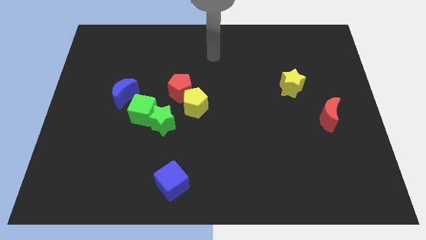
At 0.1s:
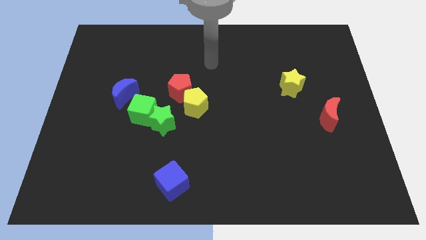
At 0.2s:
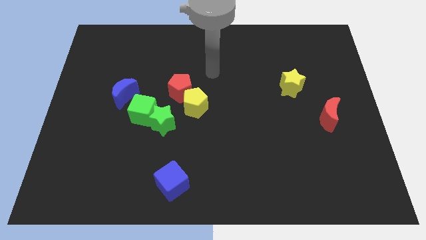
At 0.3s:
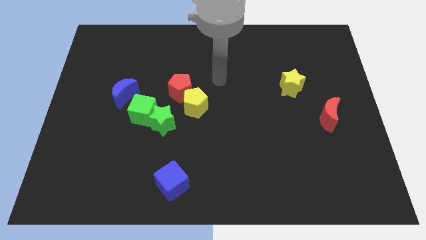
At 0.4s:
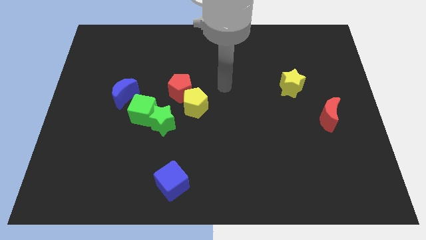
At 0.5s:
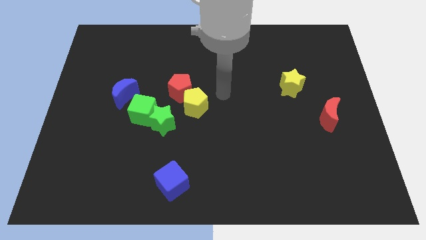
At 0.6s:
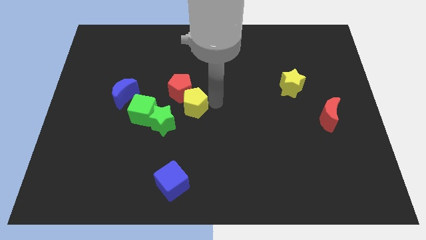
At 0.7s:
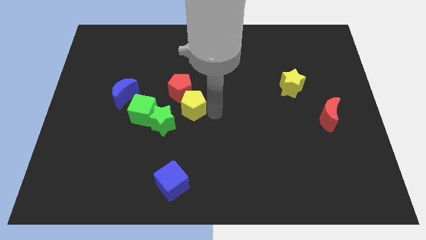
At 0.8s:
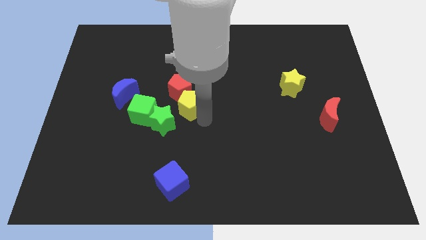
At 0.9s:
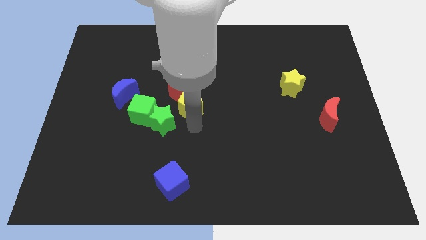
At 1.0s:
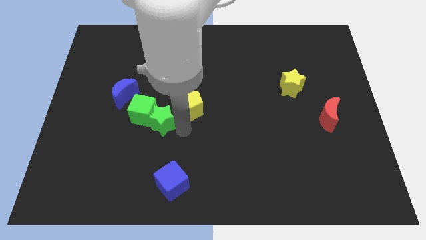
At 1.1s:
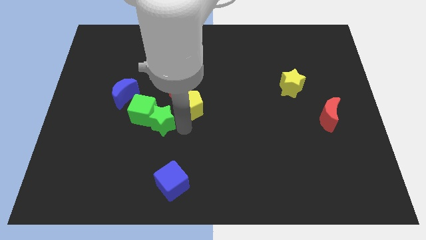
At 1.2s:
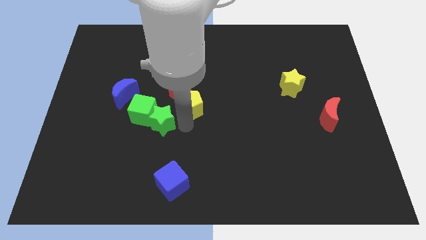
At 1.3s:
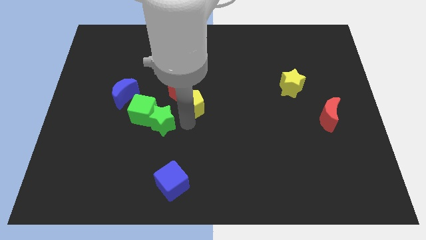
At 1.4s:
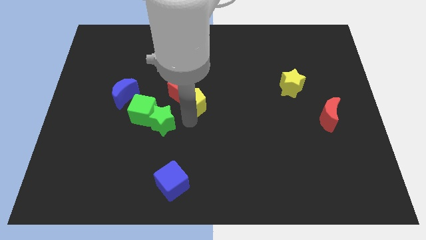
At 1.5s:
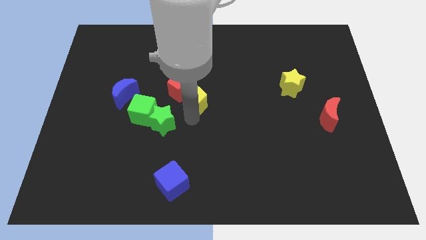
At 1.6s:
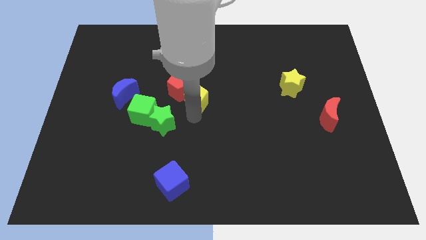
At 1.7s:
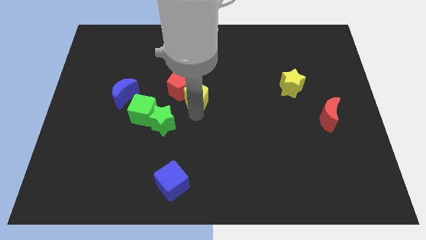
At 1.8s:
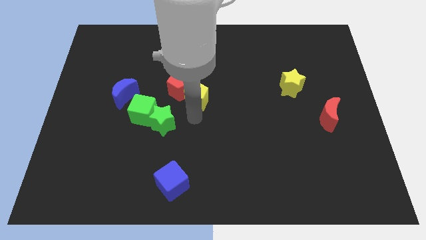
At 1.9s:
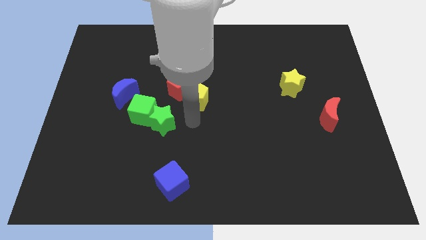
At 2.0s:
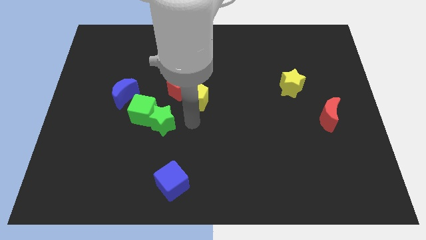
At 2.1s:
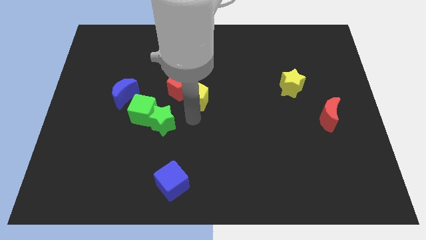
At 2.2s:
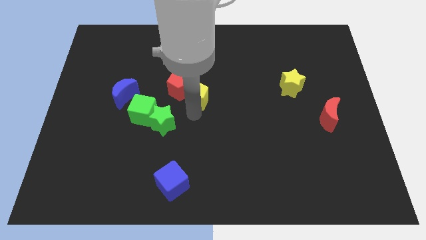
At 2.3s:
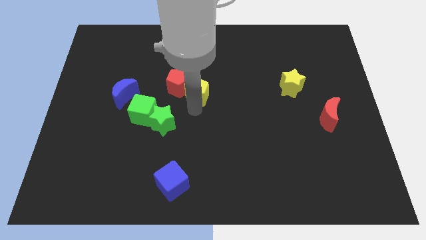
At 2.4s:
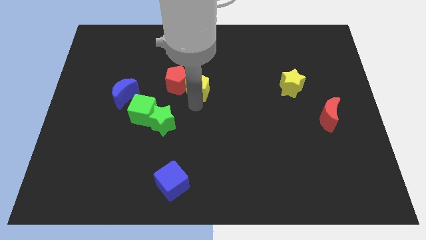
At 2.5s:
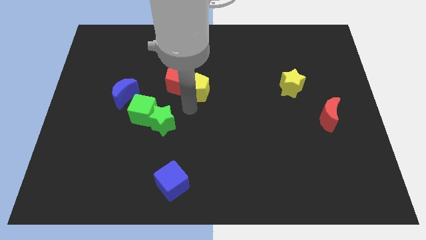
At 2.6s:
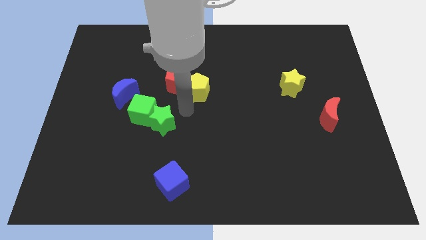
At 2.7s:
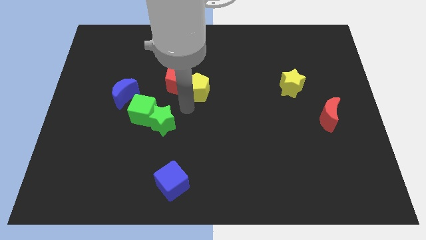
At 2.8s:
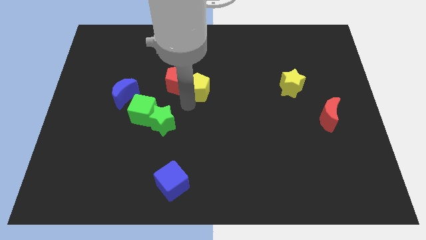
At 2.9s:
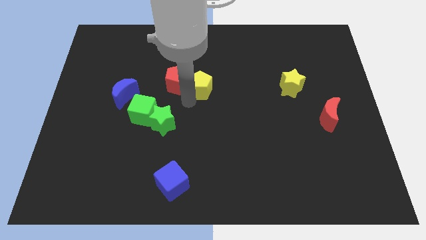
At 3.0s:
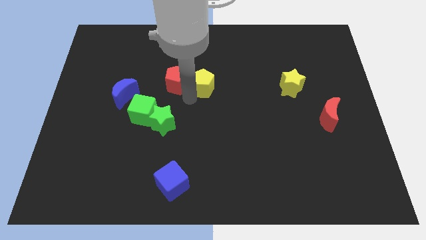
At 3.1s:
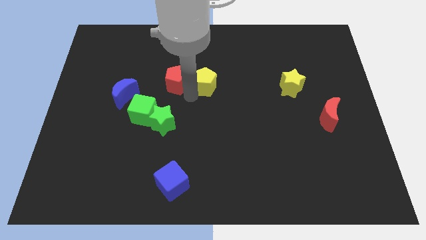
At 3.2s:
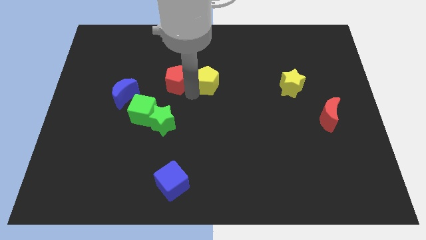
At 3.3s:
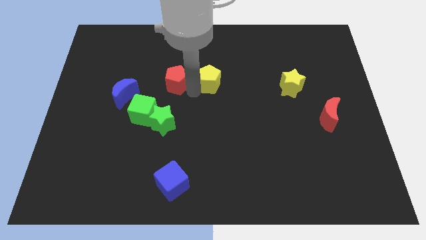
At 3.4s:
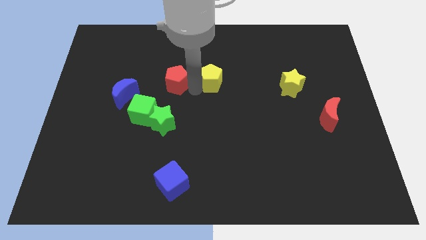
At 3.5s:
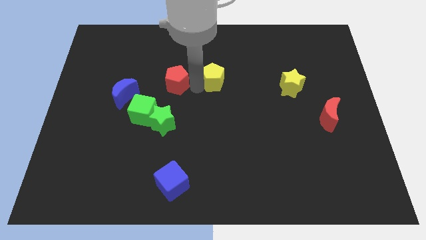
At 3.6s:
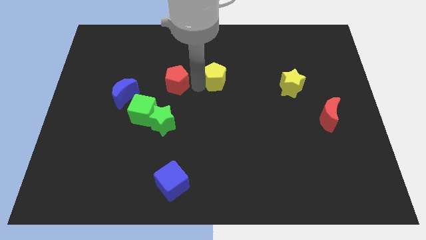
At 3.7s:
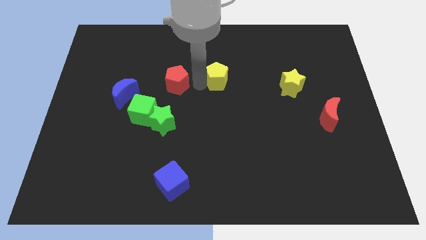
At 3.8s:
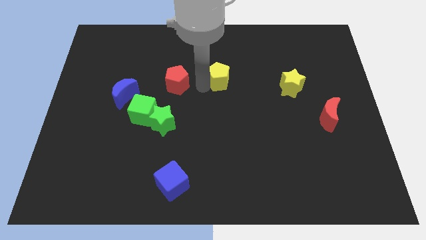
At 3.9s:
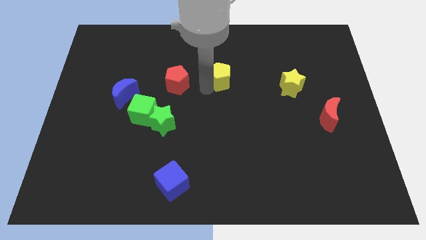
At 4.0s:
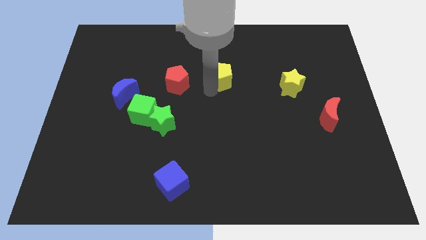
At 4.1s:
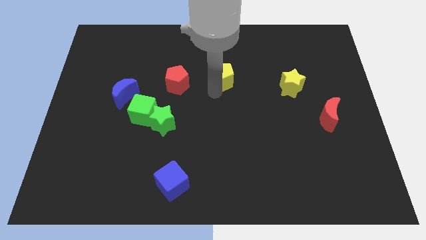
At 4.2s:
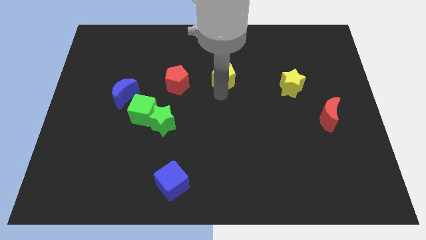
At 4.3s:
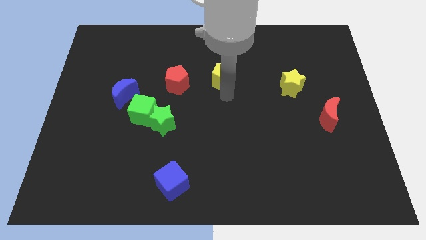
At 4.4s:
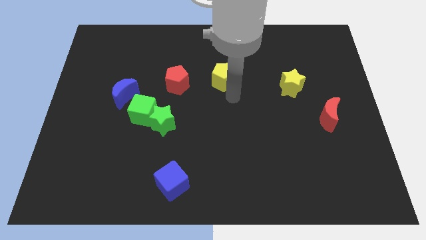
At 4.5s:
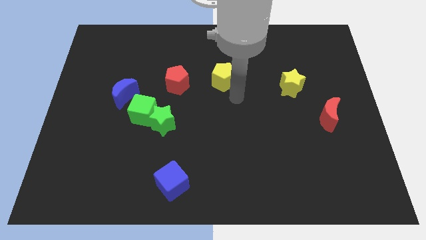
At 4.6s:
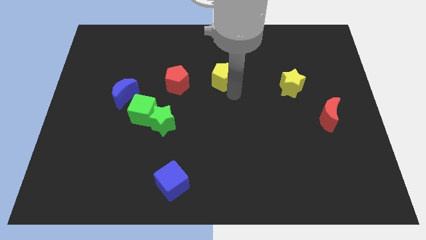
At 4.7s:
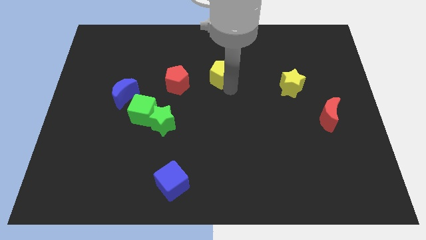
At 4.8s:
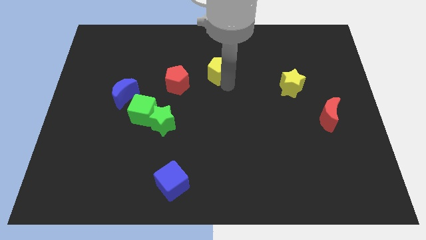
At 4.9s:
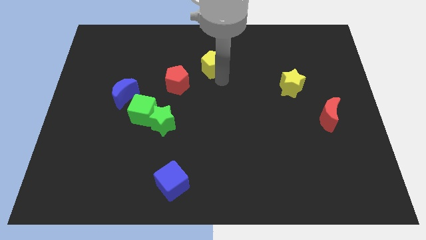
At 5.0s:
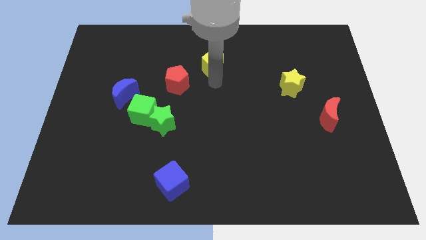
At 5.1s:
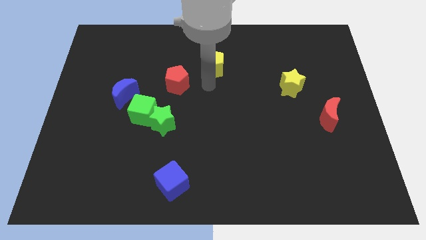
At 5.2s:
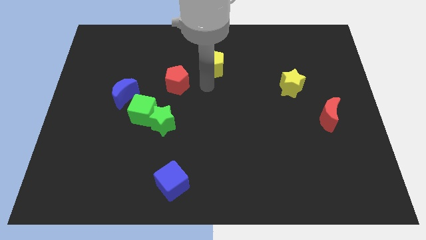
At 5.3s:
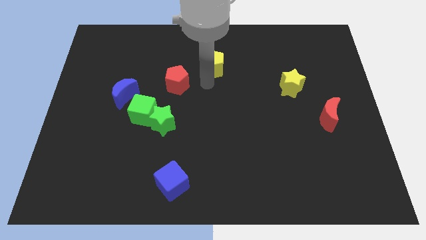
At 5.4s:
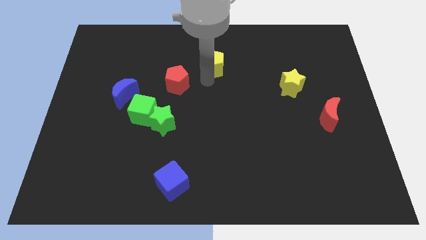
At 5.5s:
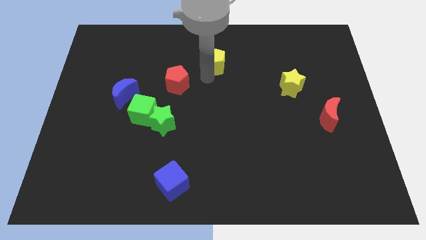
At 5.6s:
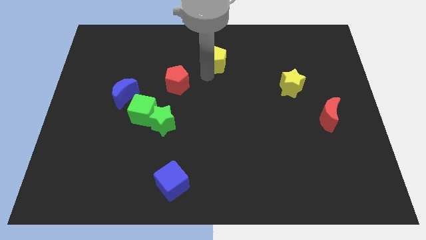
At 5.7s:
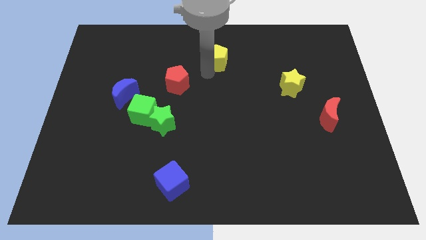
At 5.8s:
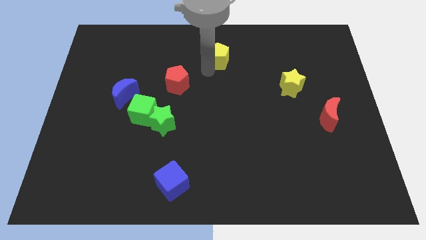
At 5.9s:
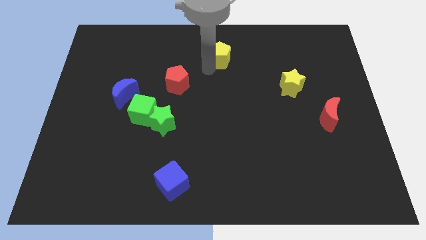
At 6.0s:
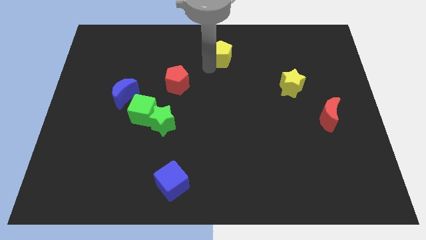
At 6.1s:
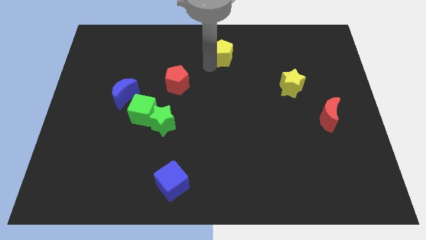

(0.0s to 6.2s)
move the yellow pentagon to the top
